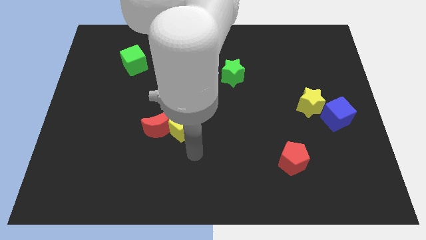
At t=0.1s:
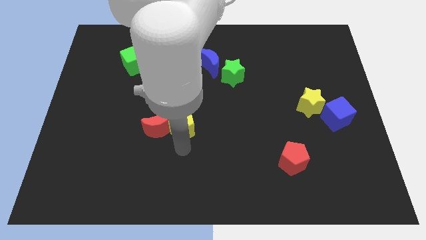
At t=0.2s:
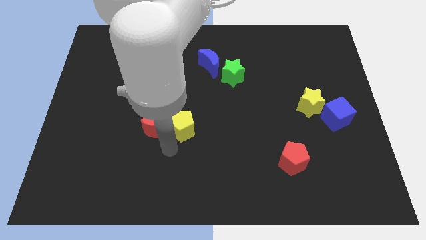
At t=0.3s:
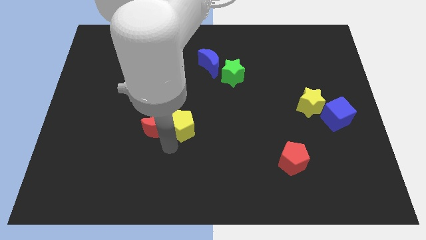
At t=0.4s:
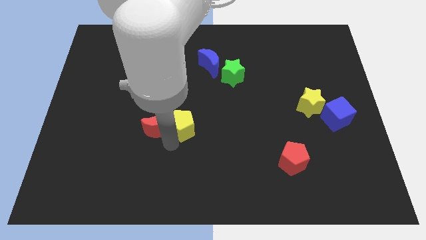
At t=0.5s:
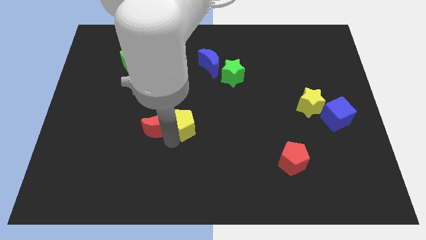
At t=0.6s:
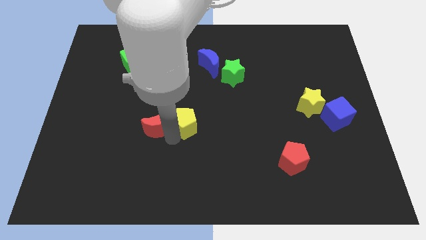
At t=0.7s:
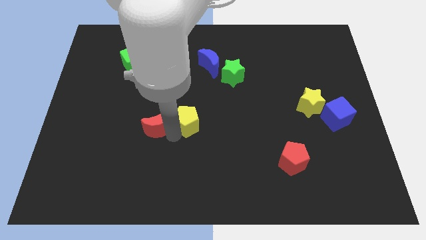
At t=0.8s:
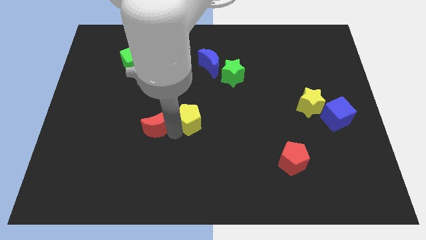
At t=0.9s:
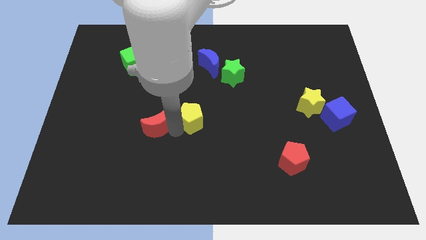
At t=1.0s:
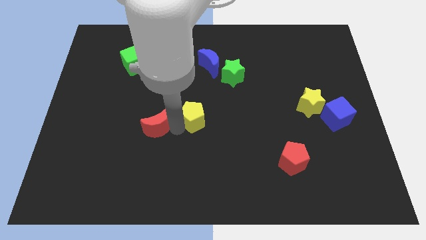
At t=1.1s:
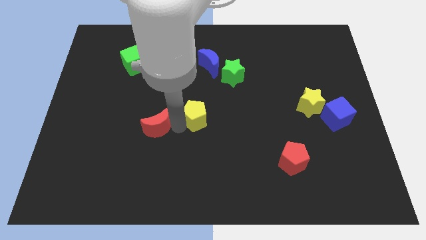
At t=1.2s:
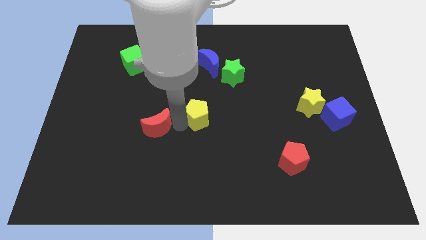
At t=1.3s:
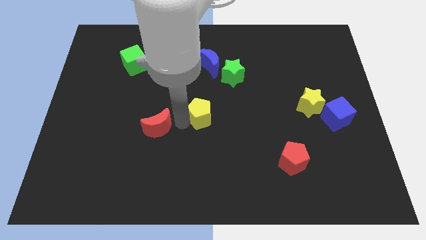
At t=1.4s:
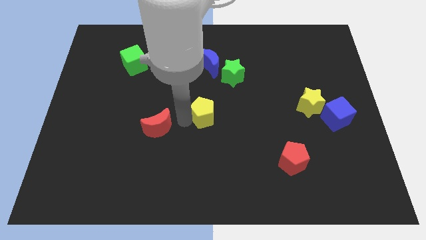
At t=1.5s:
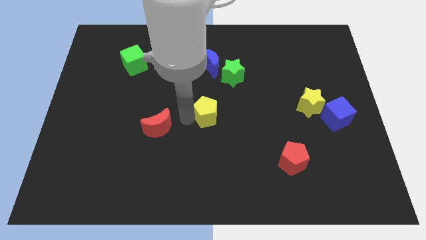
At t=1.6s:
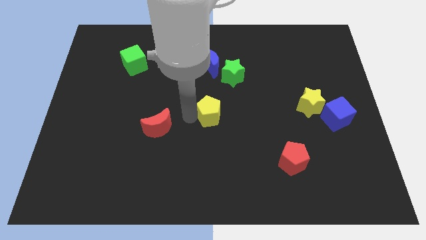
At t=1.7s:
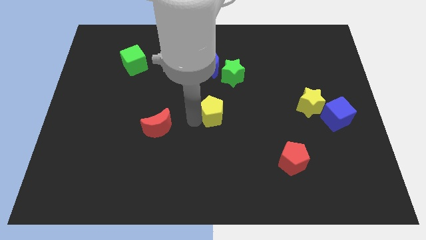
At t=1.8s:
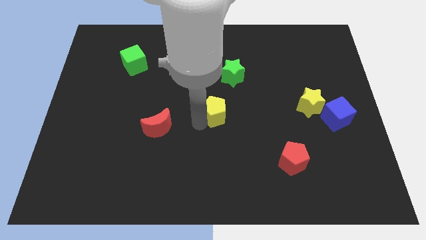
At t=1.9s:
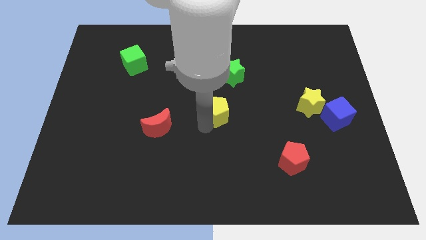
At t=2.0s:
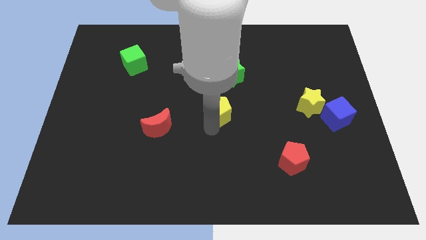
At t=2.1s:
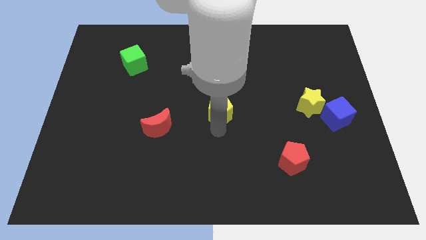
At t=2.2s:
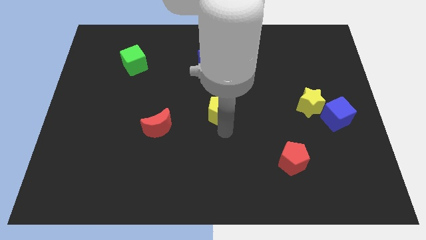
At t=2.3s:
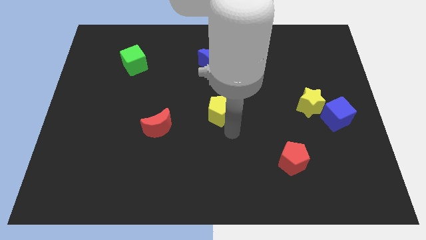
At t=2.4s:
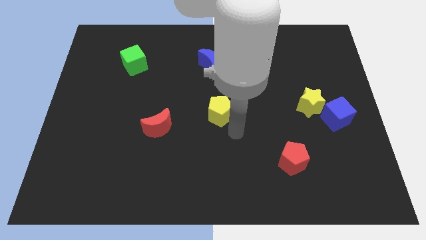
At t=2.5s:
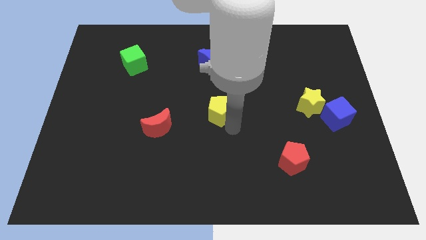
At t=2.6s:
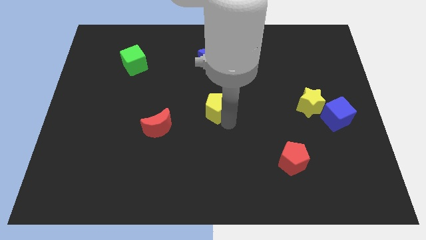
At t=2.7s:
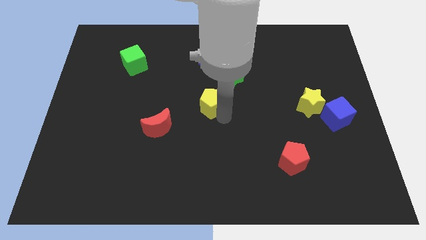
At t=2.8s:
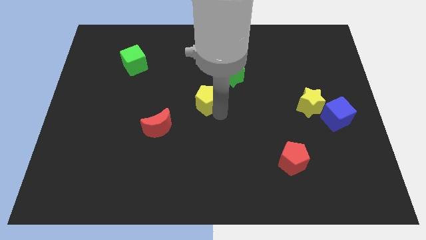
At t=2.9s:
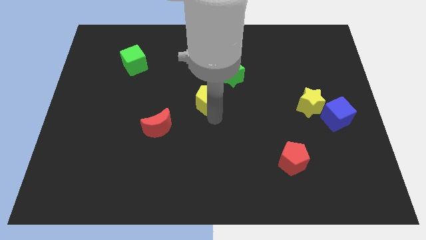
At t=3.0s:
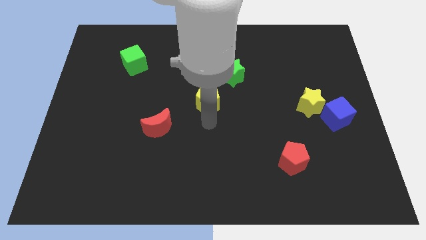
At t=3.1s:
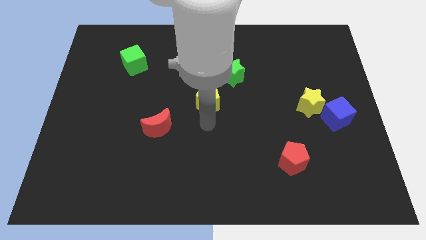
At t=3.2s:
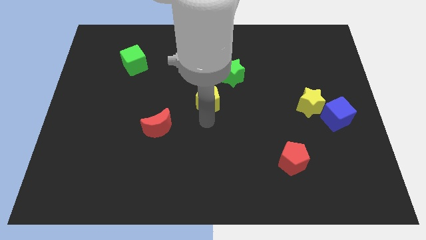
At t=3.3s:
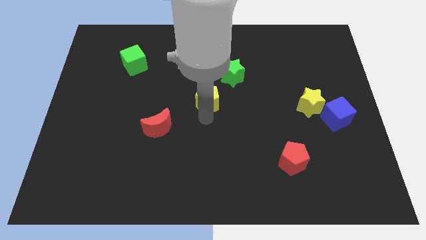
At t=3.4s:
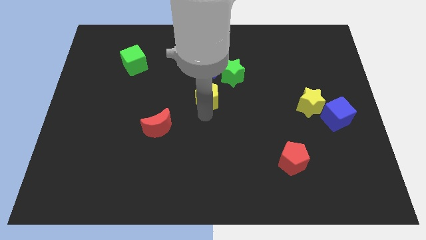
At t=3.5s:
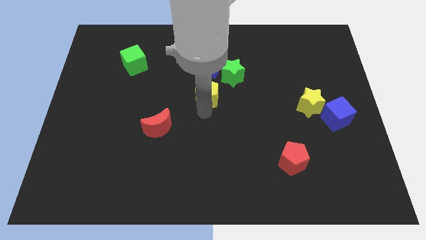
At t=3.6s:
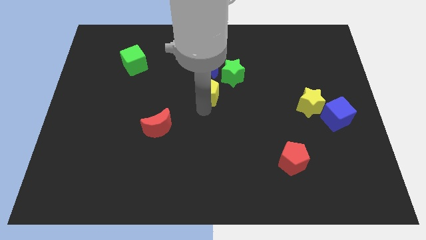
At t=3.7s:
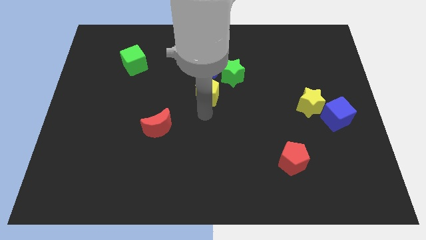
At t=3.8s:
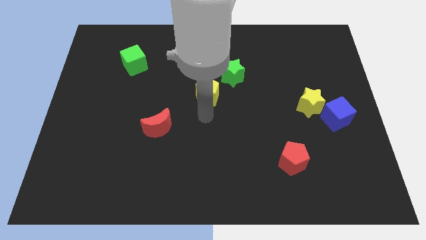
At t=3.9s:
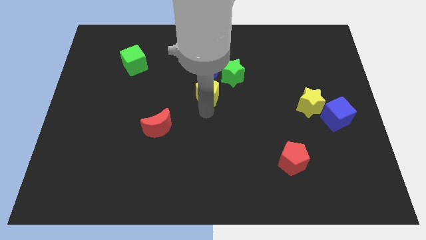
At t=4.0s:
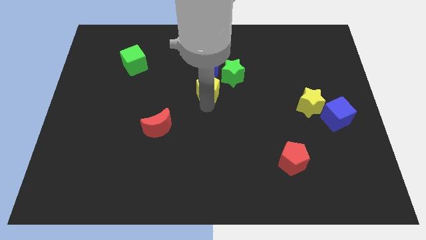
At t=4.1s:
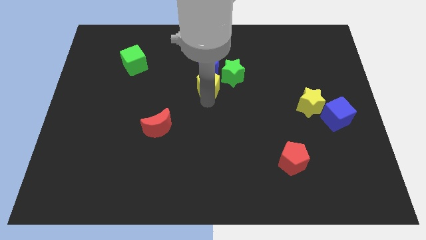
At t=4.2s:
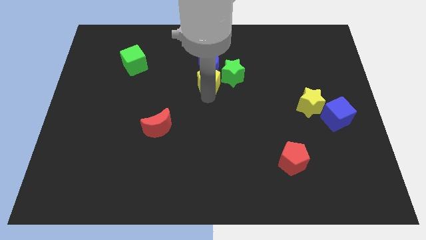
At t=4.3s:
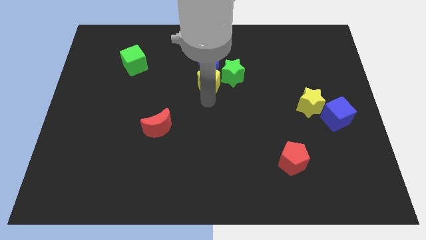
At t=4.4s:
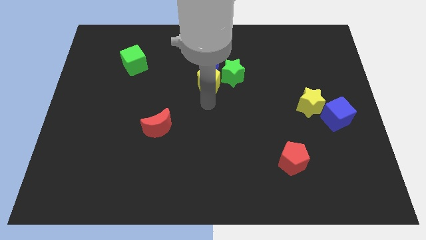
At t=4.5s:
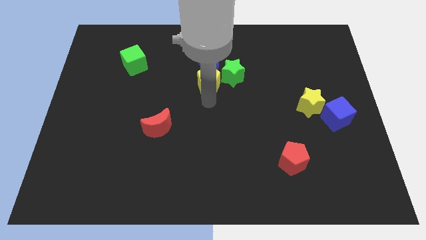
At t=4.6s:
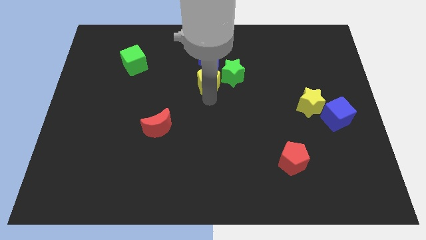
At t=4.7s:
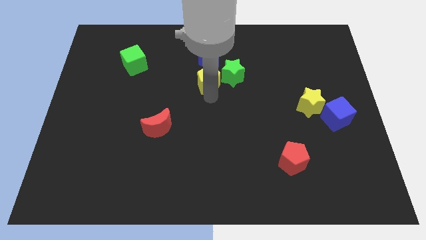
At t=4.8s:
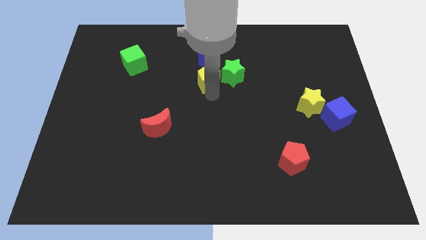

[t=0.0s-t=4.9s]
push the yellow pentagon to the blue moon

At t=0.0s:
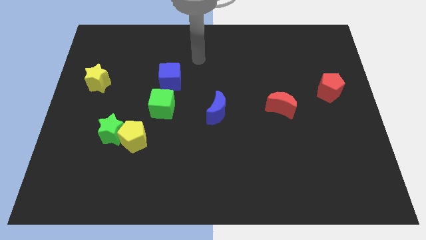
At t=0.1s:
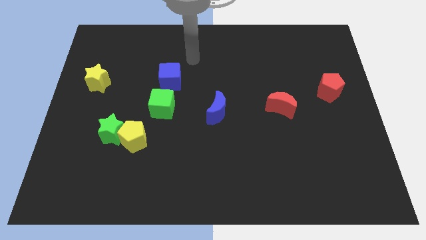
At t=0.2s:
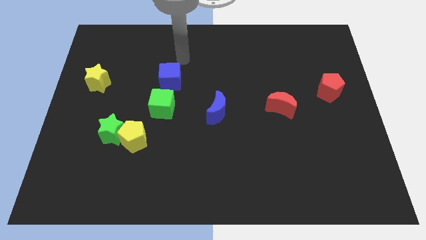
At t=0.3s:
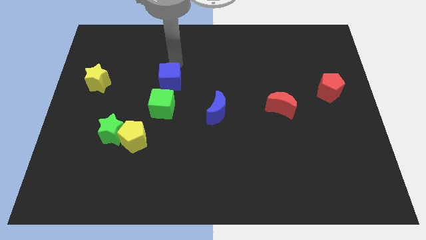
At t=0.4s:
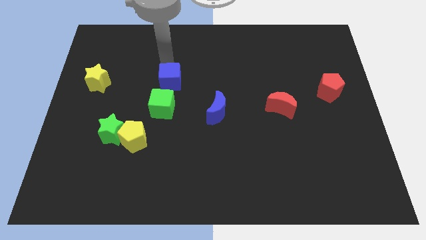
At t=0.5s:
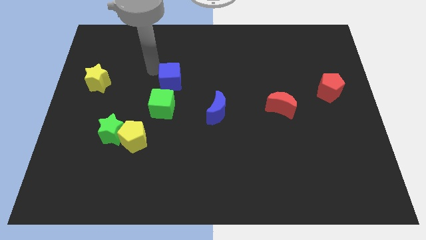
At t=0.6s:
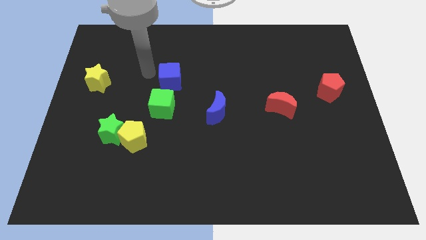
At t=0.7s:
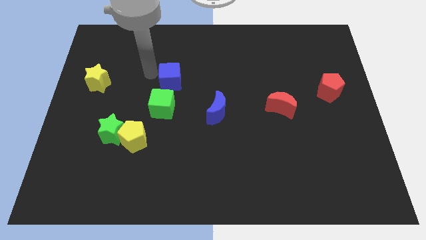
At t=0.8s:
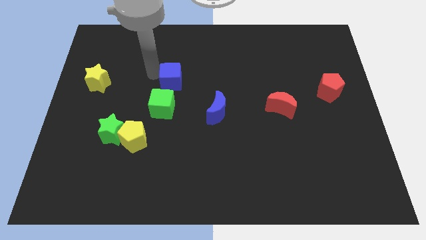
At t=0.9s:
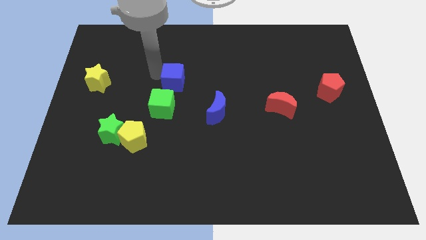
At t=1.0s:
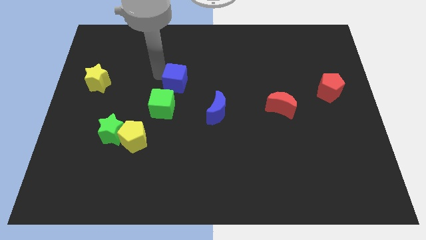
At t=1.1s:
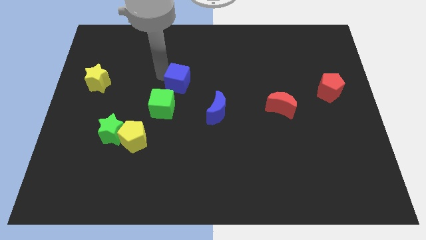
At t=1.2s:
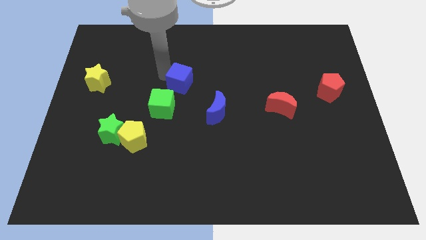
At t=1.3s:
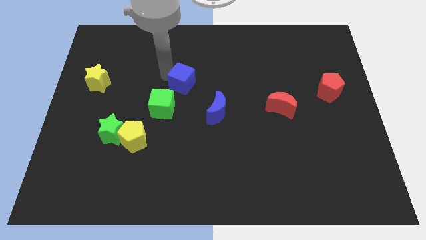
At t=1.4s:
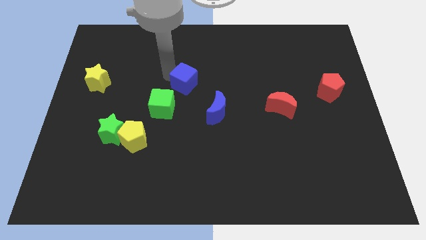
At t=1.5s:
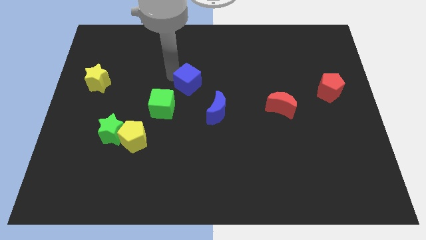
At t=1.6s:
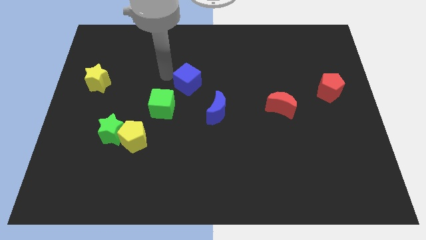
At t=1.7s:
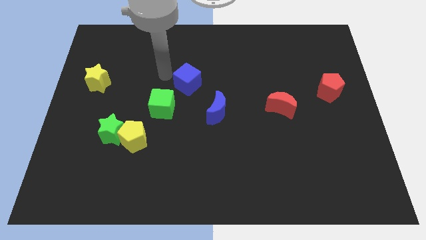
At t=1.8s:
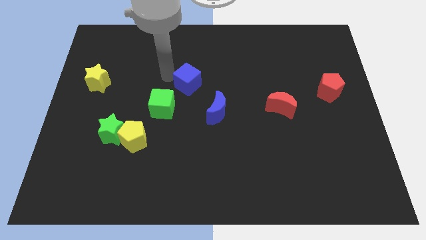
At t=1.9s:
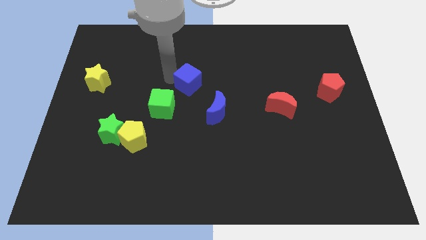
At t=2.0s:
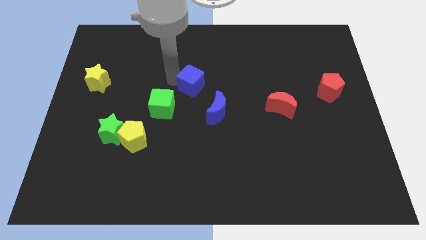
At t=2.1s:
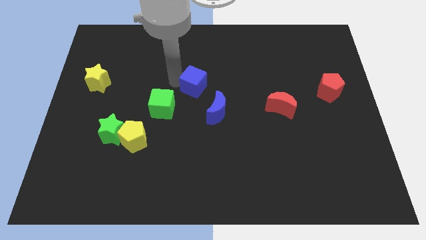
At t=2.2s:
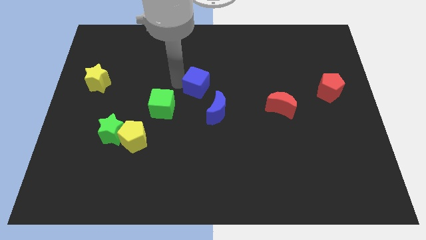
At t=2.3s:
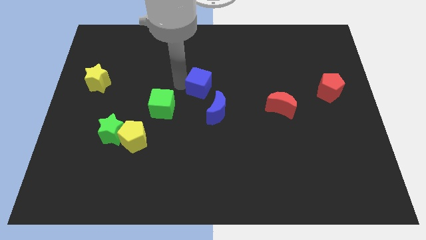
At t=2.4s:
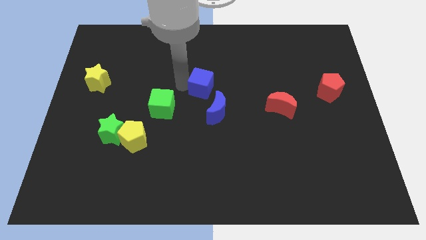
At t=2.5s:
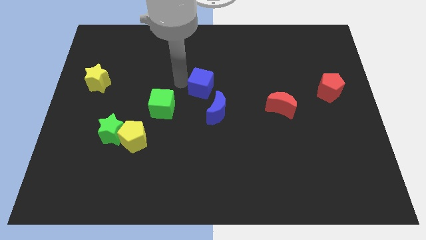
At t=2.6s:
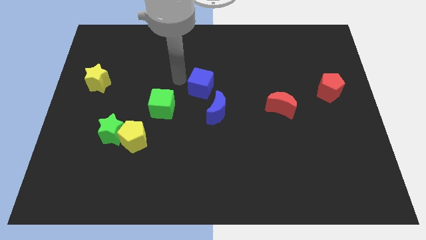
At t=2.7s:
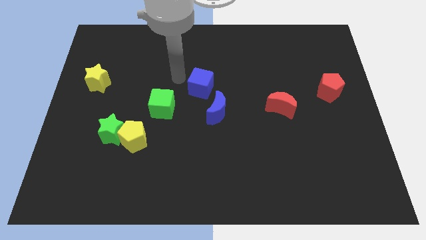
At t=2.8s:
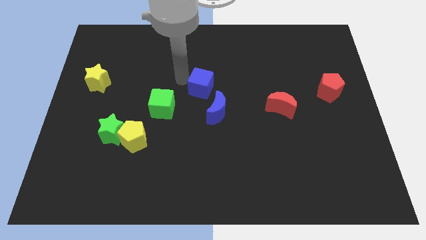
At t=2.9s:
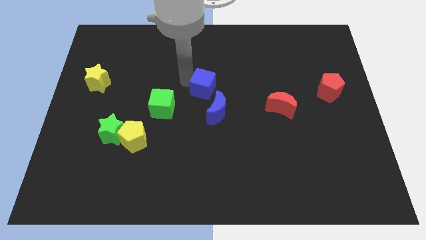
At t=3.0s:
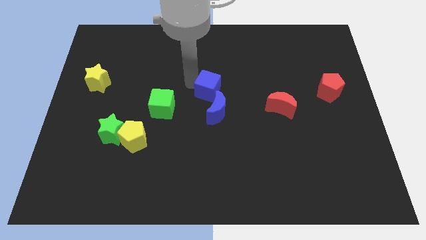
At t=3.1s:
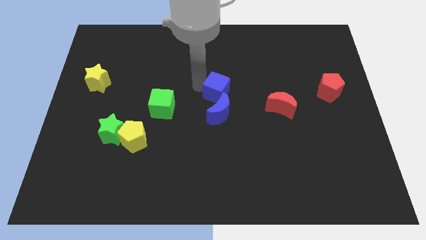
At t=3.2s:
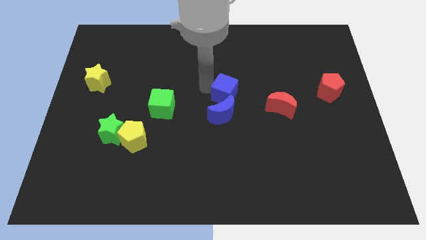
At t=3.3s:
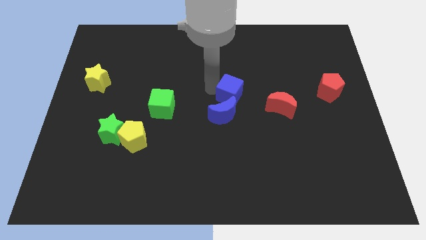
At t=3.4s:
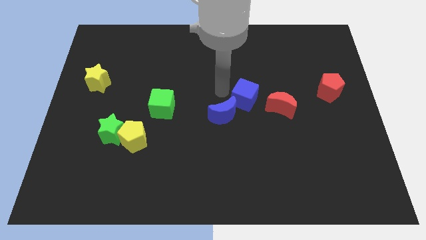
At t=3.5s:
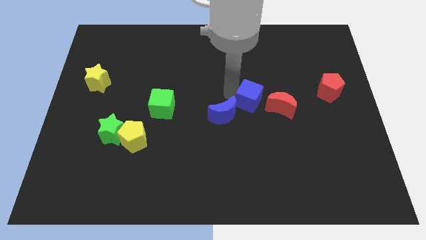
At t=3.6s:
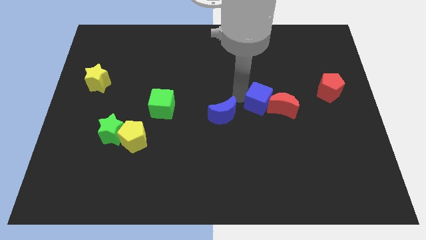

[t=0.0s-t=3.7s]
slide the blue cube to the red moon
